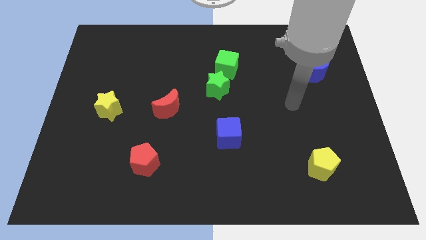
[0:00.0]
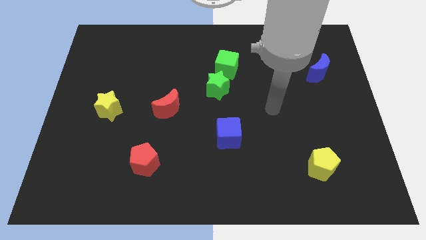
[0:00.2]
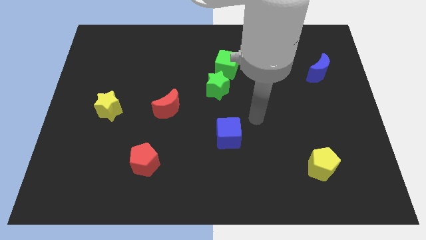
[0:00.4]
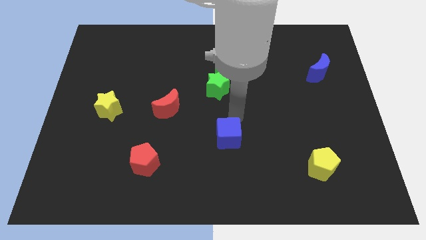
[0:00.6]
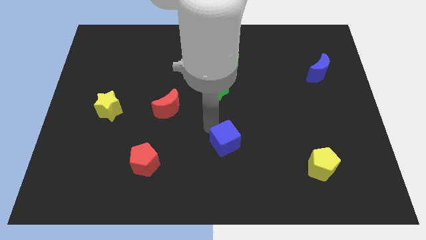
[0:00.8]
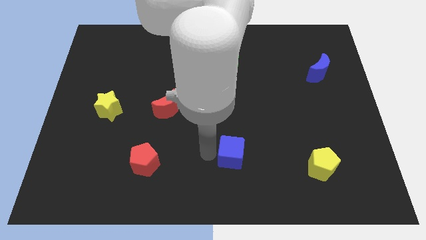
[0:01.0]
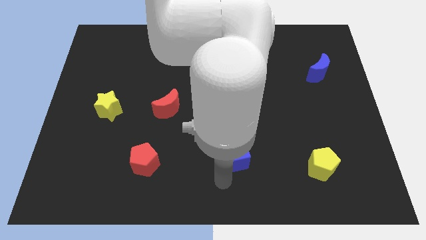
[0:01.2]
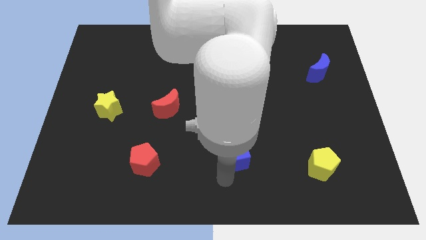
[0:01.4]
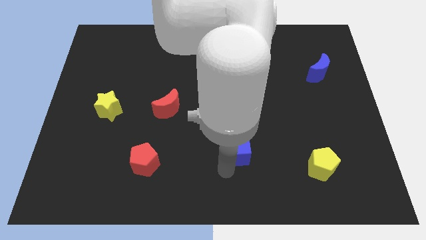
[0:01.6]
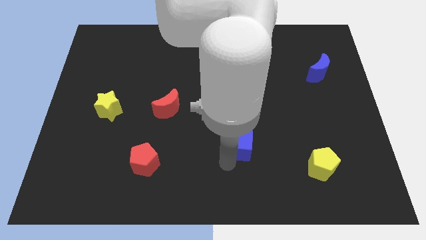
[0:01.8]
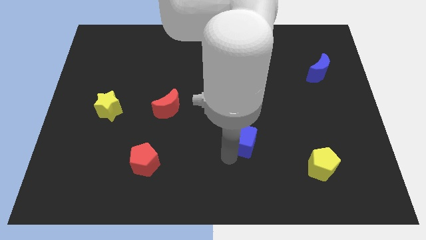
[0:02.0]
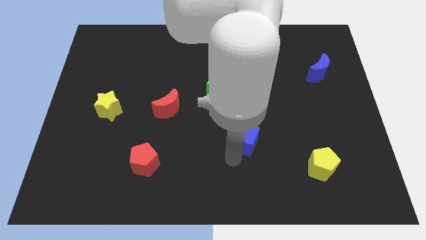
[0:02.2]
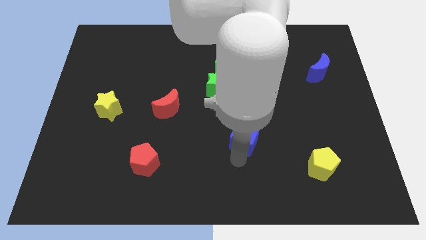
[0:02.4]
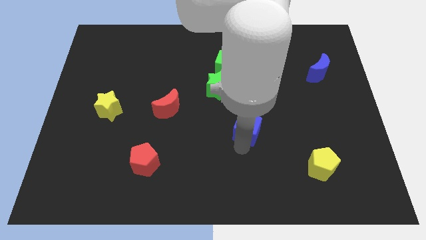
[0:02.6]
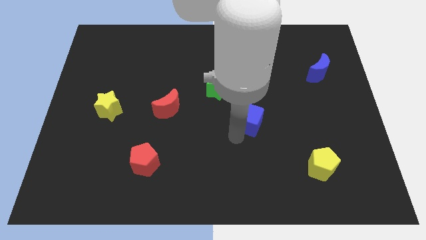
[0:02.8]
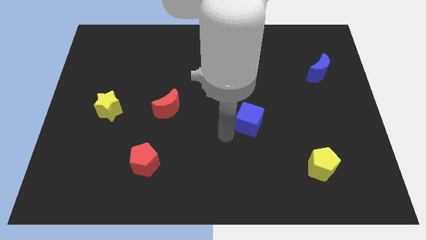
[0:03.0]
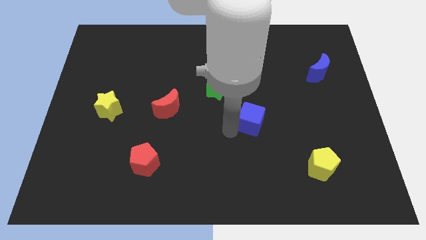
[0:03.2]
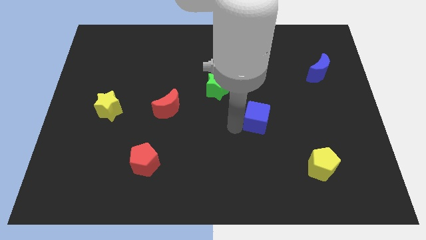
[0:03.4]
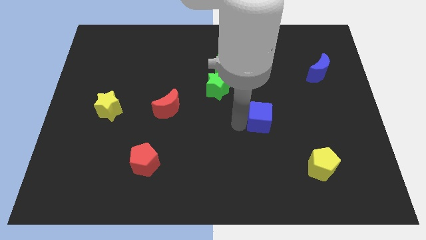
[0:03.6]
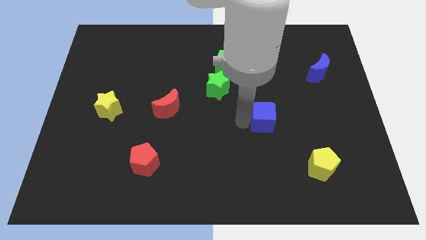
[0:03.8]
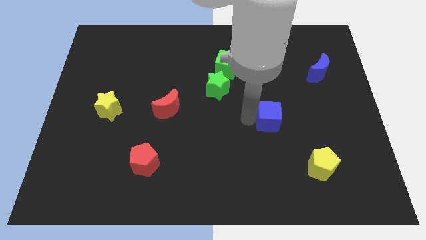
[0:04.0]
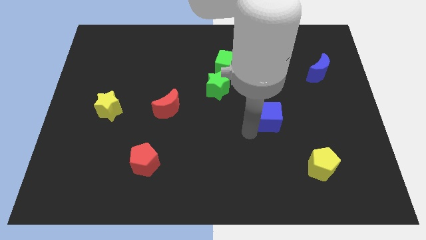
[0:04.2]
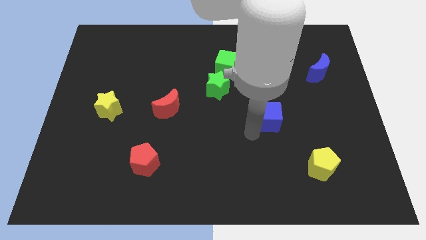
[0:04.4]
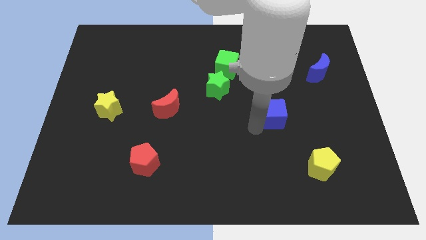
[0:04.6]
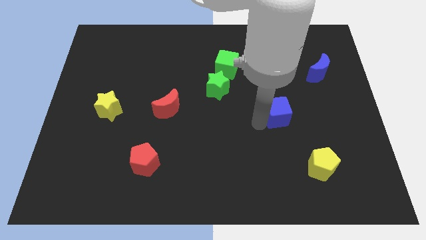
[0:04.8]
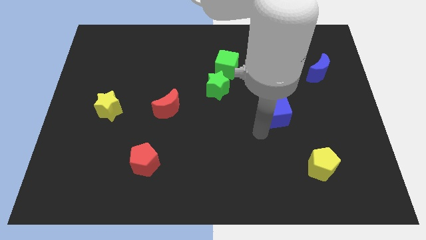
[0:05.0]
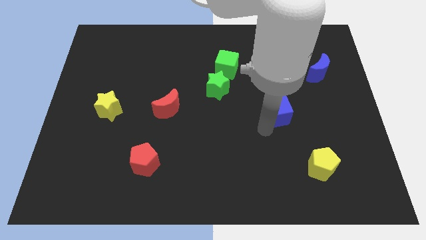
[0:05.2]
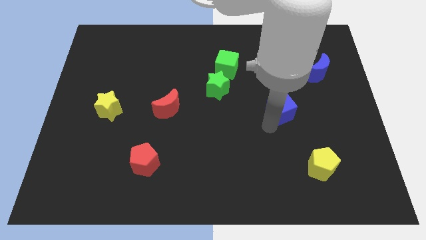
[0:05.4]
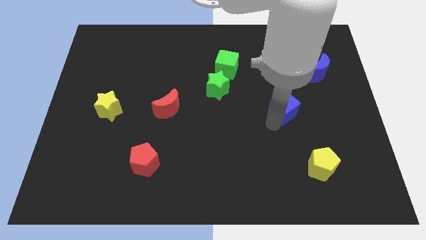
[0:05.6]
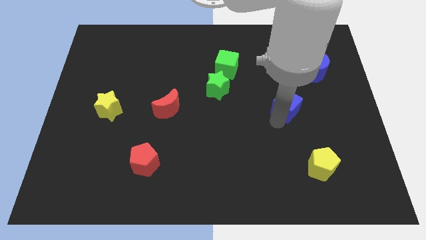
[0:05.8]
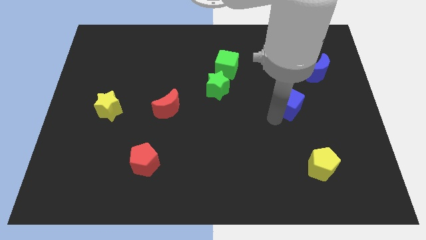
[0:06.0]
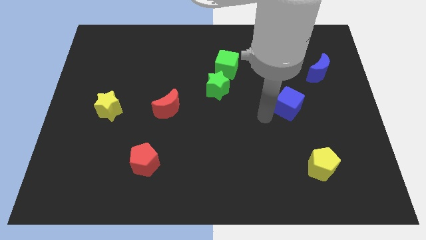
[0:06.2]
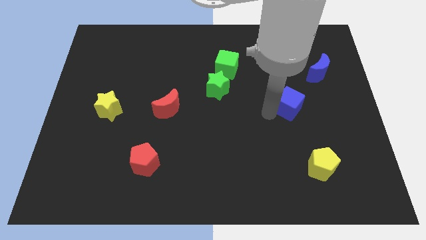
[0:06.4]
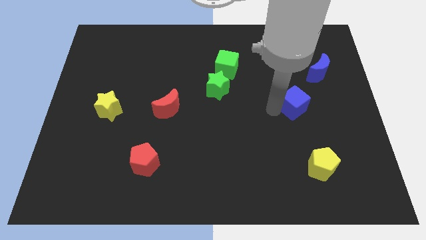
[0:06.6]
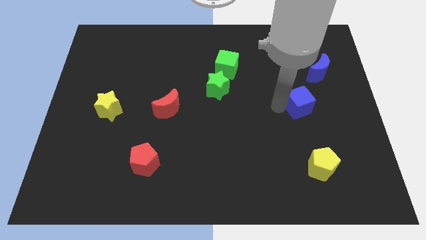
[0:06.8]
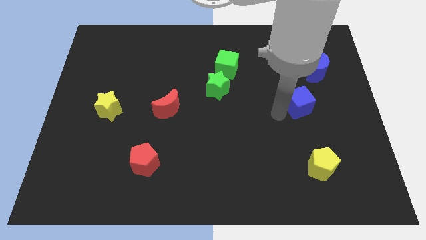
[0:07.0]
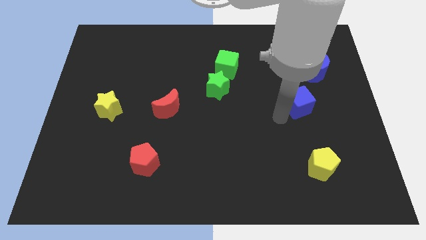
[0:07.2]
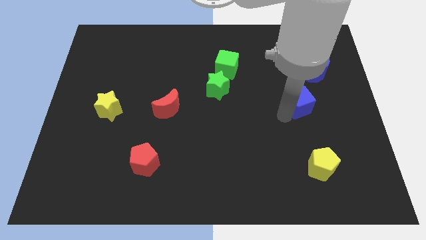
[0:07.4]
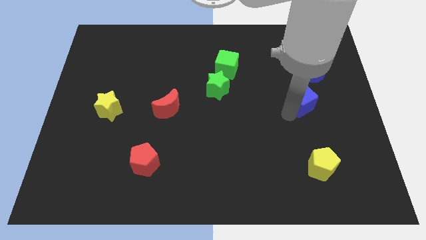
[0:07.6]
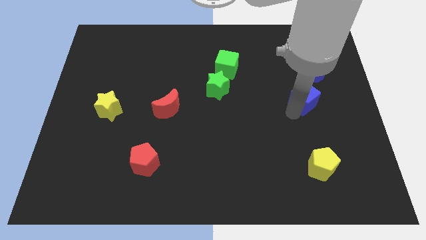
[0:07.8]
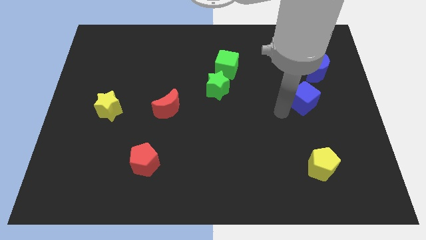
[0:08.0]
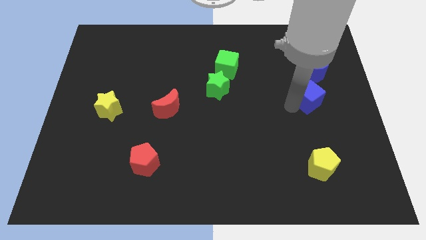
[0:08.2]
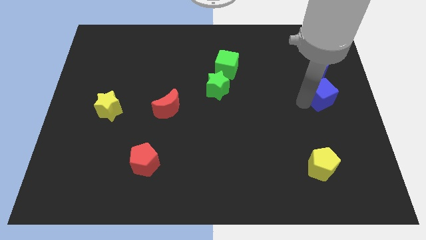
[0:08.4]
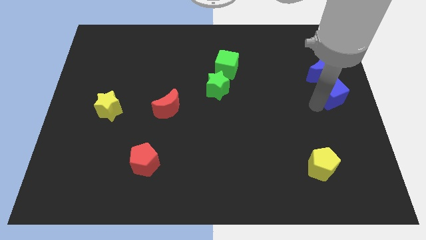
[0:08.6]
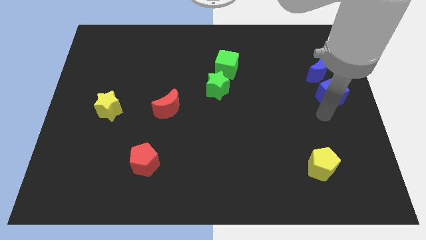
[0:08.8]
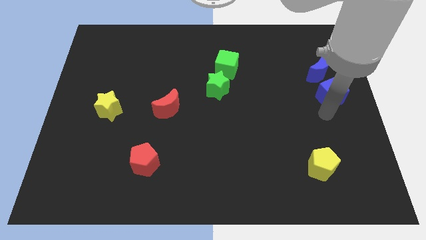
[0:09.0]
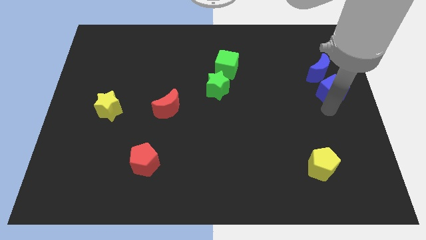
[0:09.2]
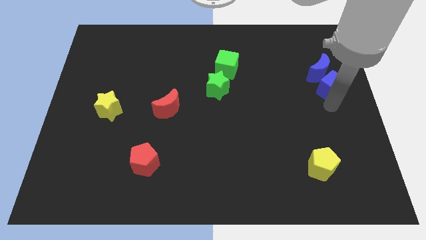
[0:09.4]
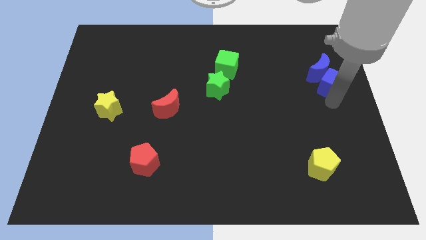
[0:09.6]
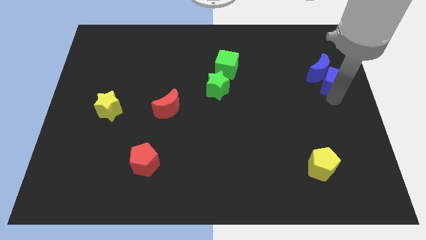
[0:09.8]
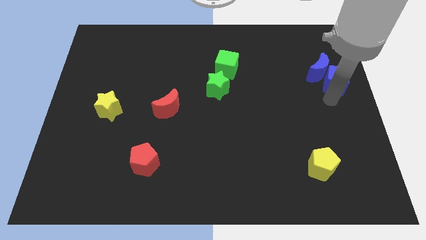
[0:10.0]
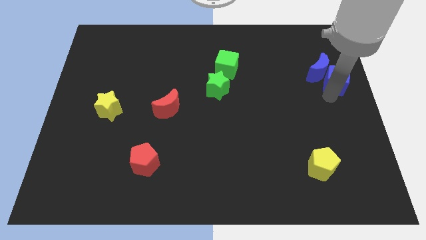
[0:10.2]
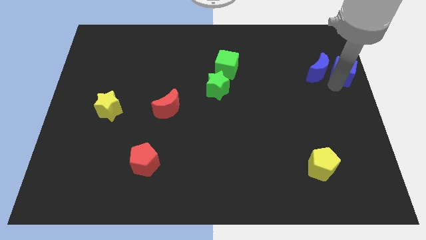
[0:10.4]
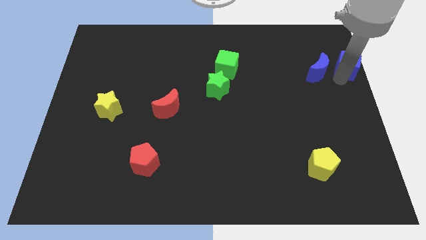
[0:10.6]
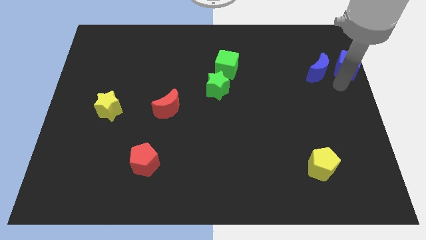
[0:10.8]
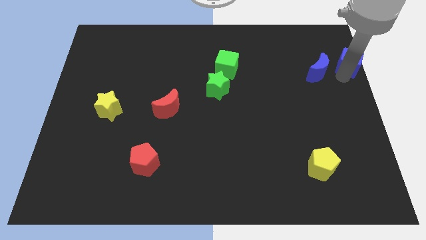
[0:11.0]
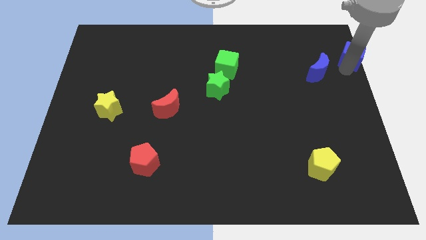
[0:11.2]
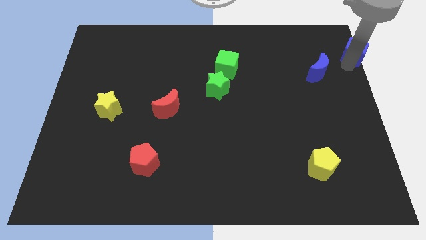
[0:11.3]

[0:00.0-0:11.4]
push the blue cube to the top right corner

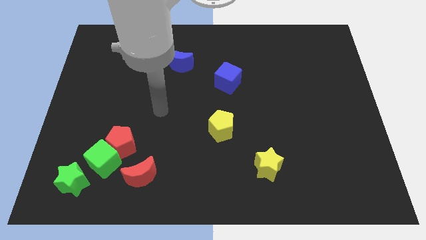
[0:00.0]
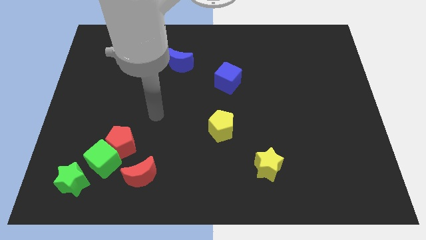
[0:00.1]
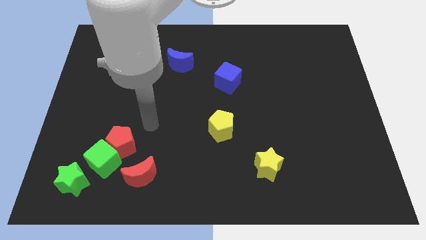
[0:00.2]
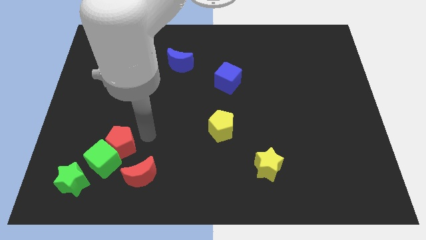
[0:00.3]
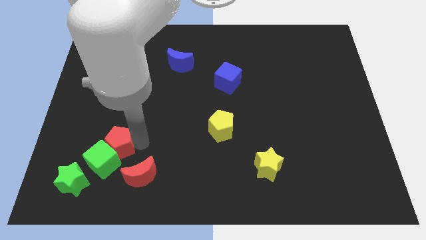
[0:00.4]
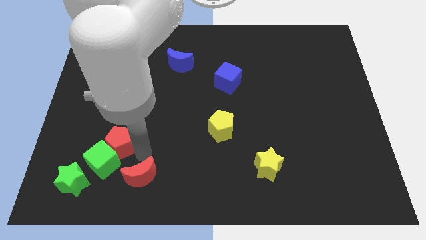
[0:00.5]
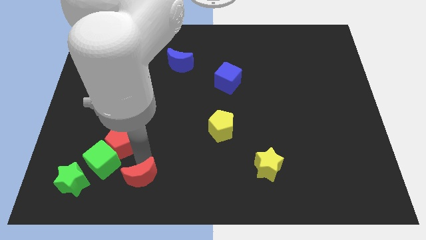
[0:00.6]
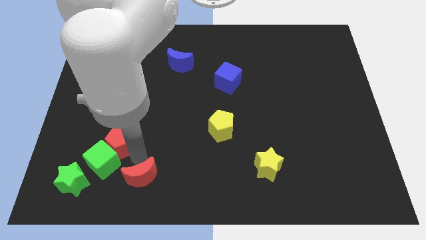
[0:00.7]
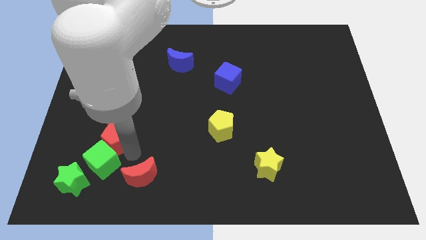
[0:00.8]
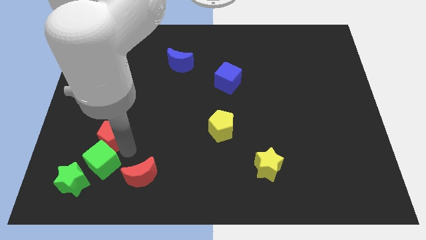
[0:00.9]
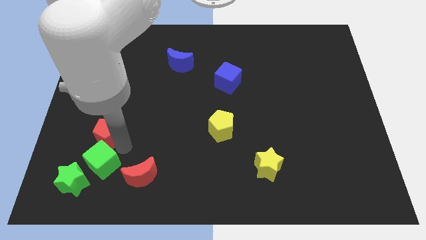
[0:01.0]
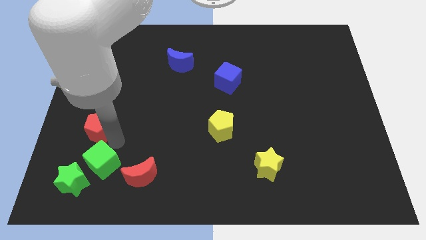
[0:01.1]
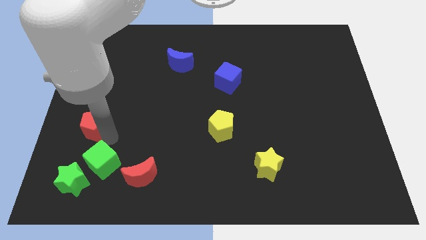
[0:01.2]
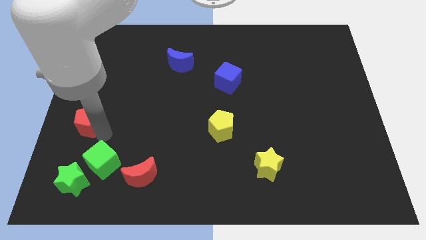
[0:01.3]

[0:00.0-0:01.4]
put the red pentagon to the center left
